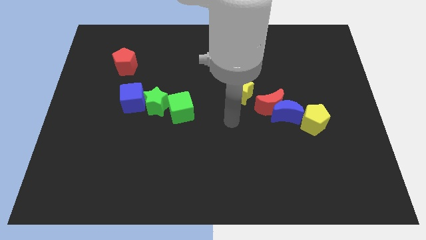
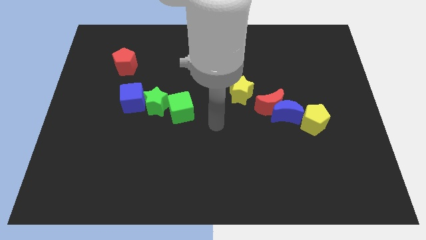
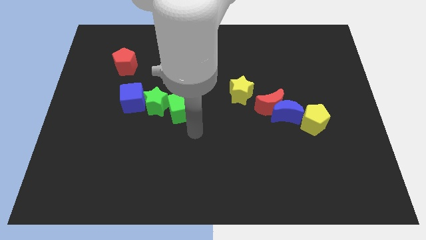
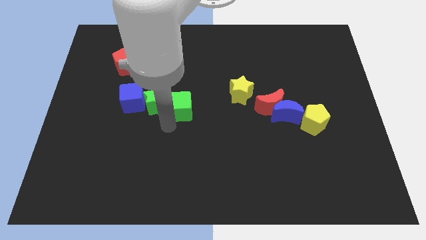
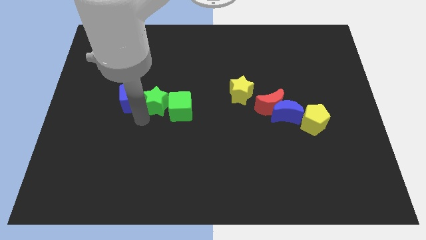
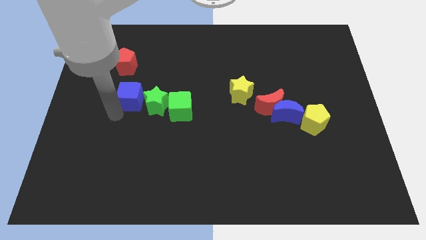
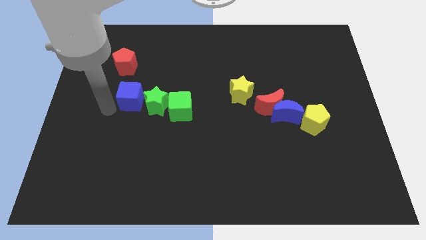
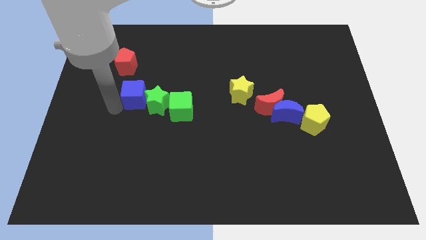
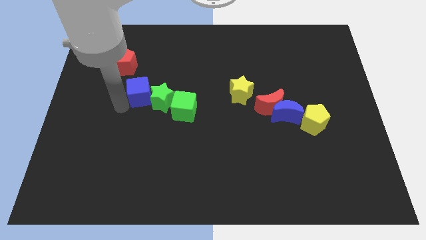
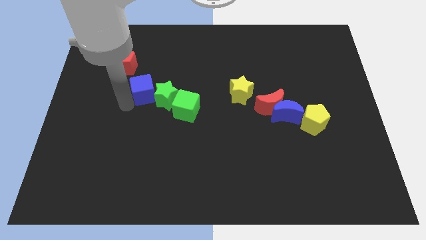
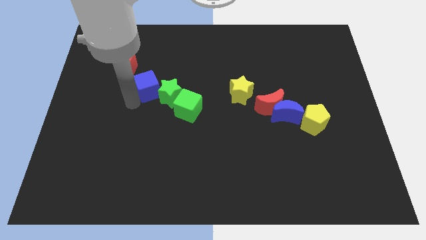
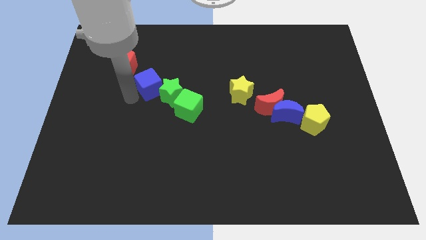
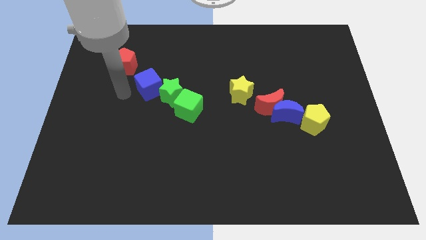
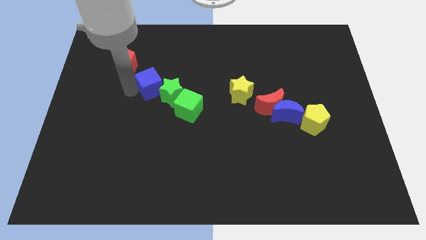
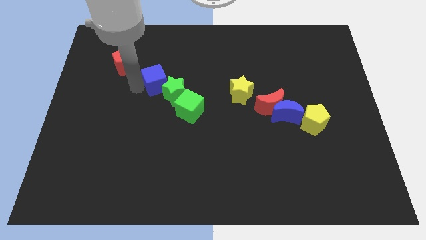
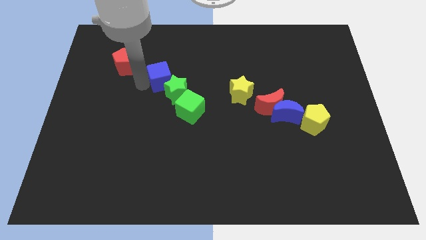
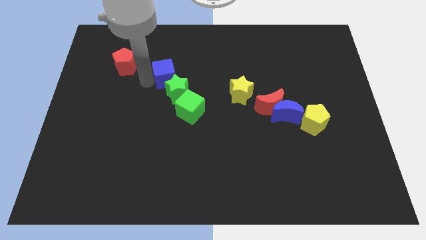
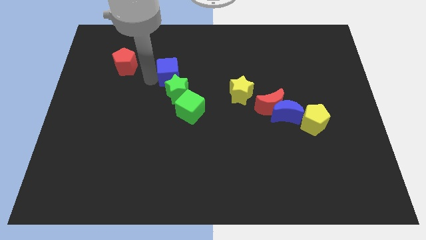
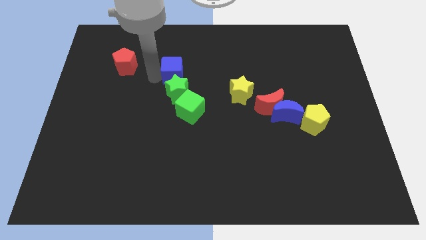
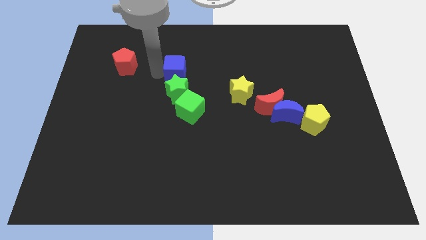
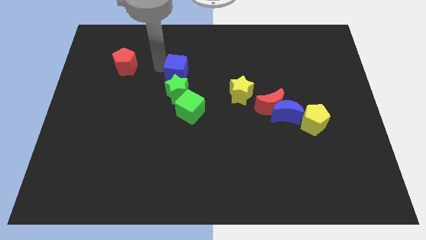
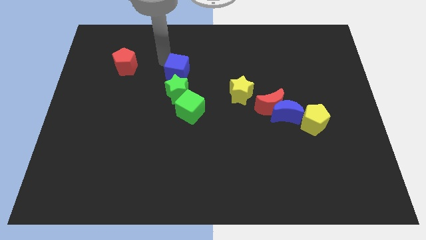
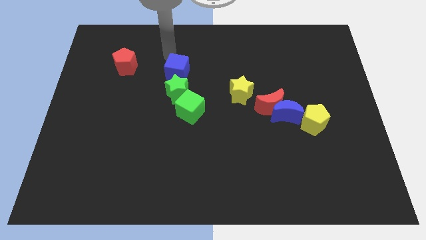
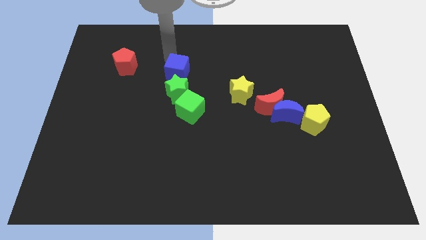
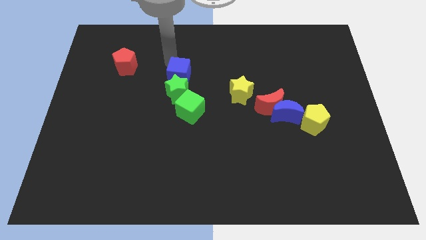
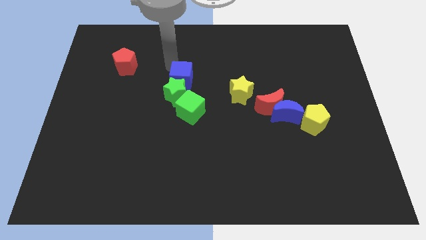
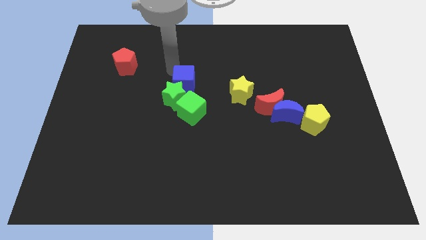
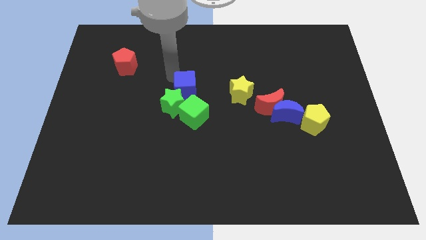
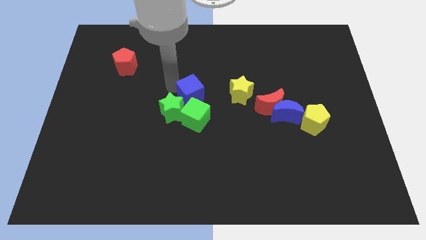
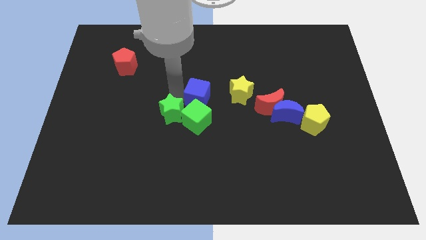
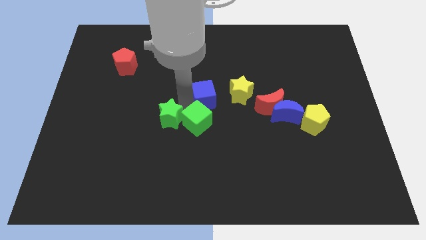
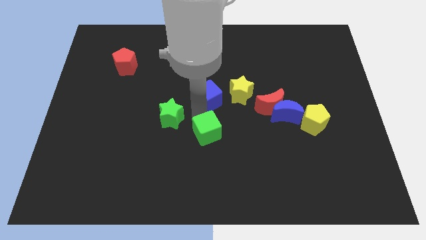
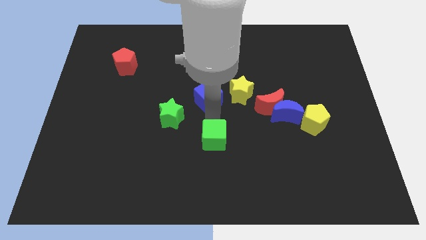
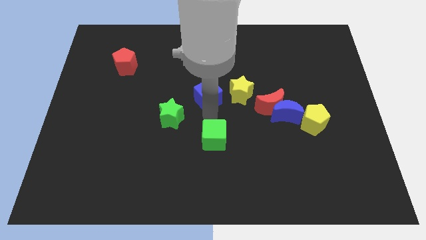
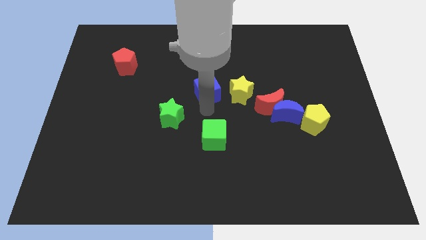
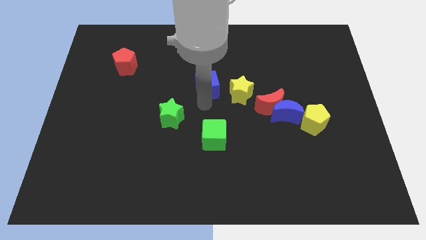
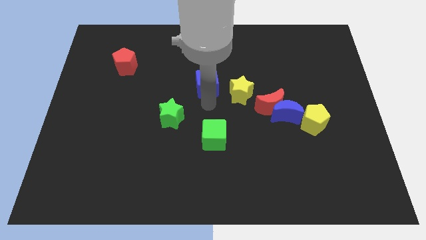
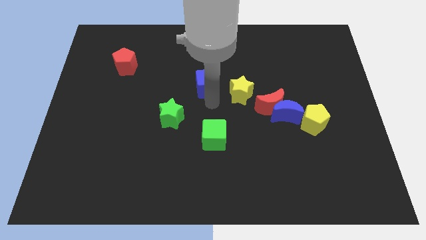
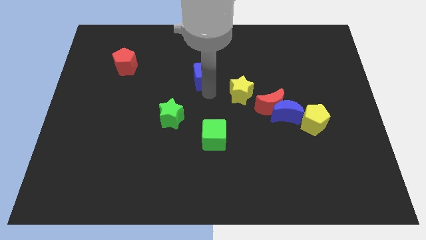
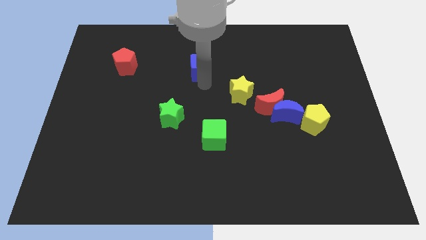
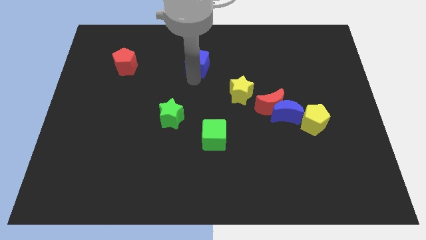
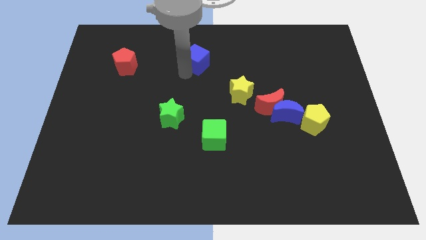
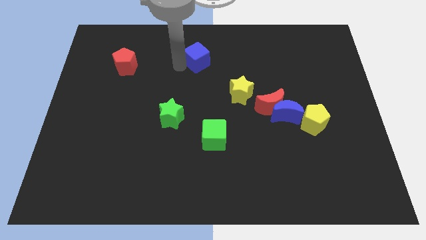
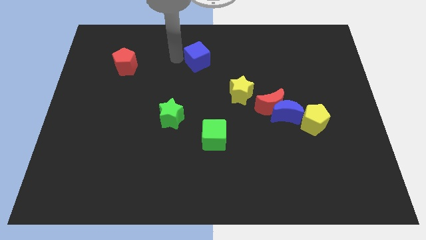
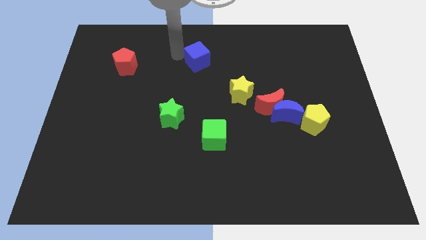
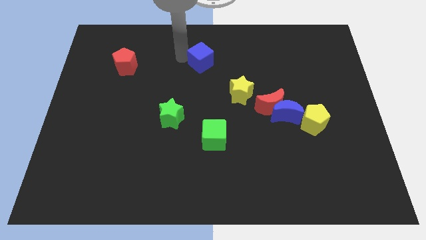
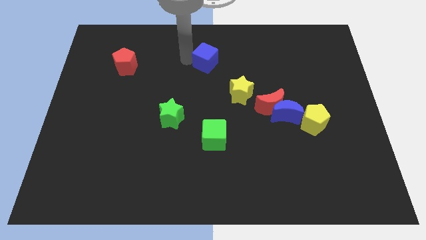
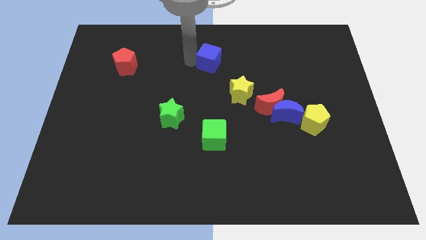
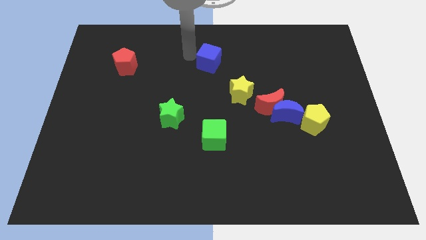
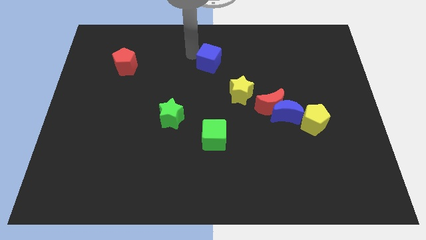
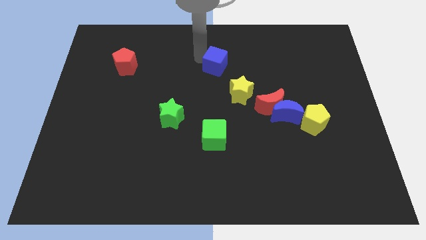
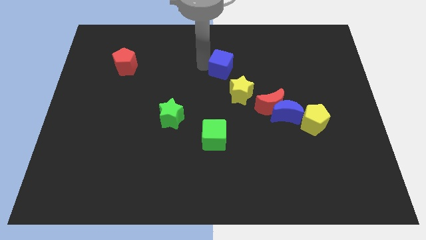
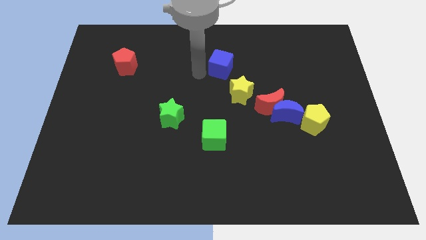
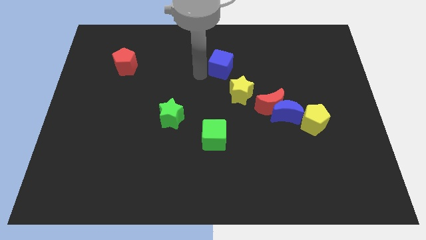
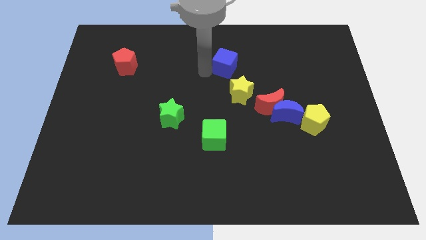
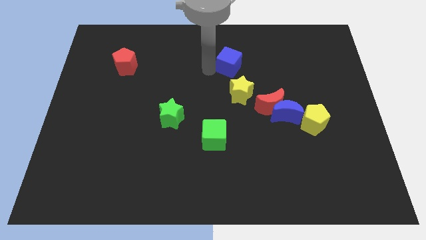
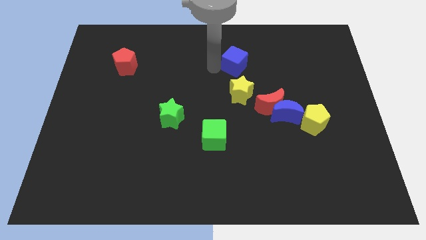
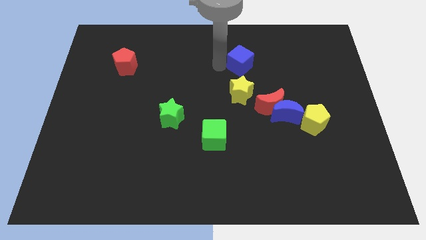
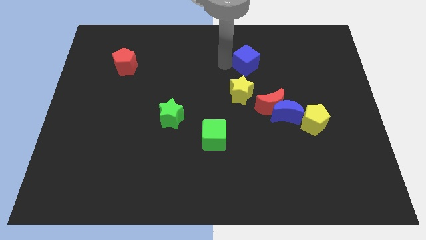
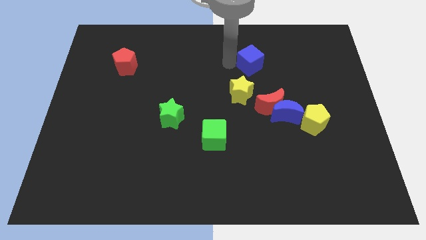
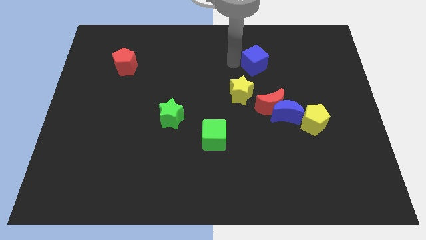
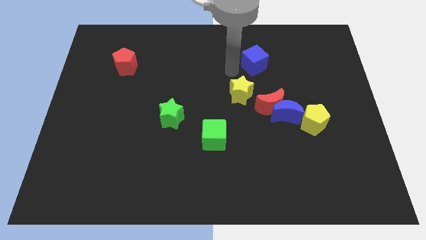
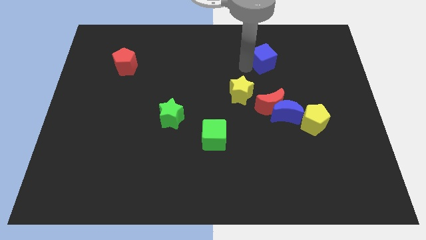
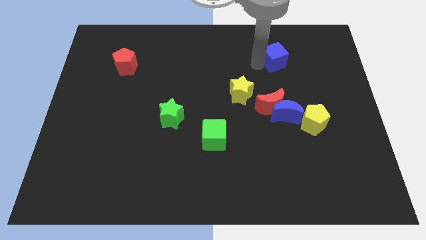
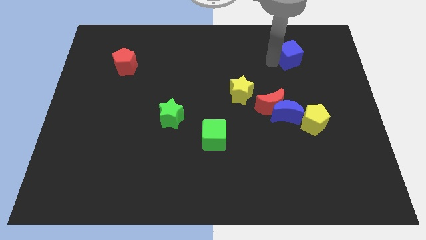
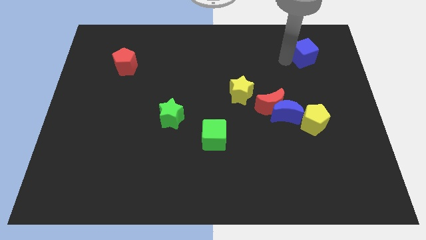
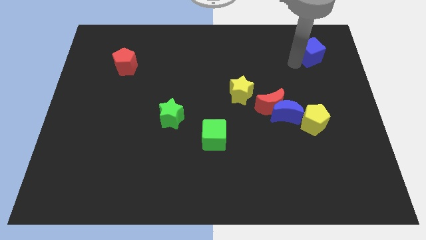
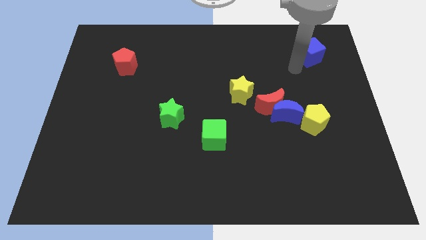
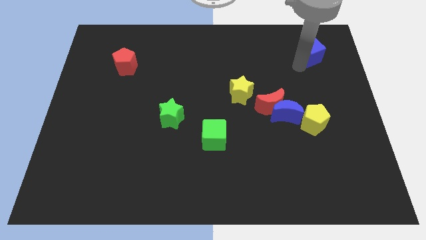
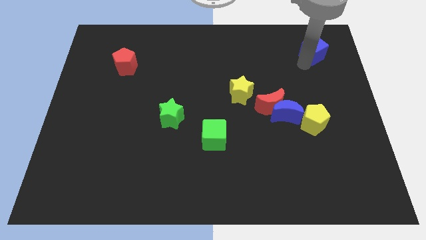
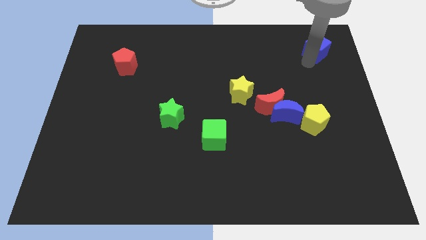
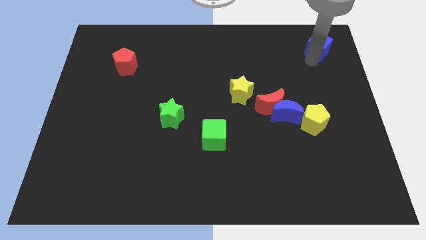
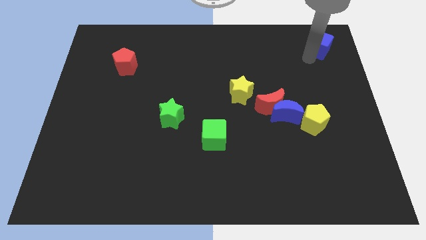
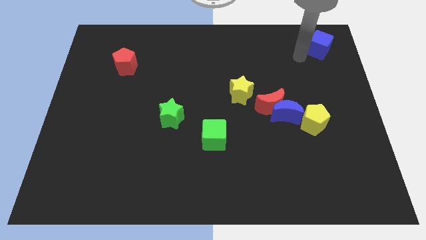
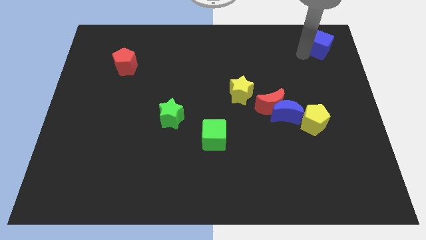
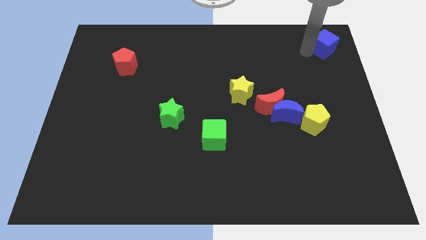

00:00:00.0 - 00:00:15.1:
move the blue cube to the top right corner
